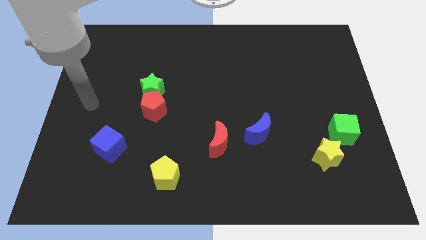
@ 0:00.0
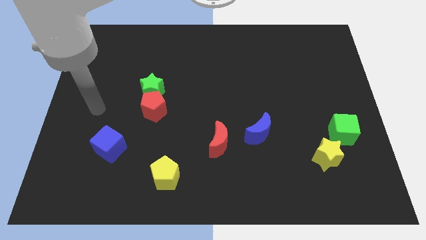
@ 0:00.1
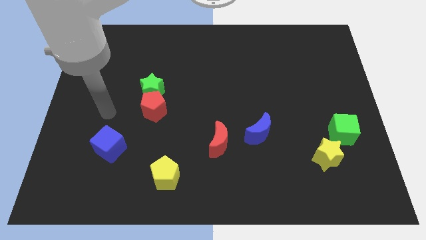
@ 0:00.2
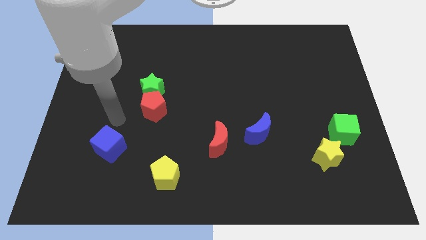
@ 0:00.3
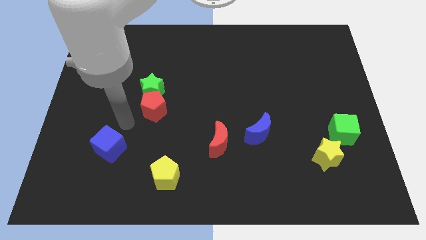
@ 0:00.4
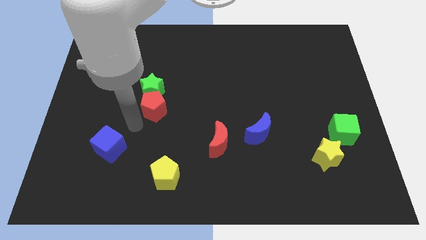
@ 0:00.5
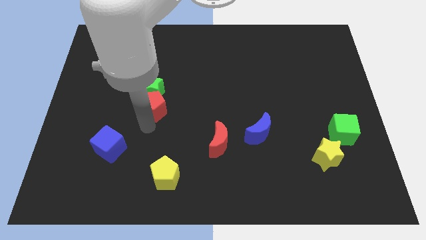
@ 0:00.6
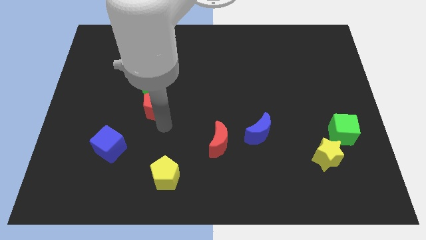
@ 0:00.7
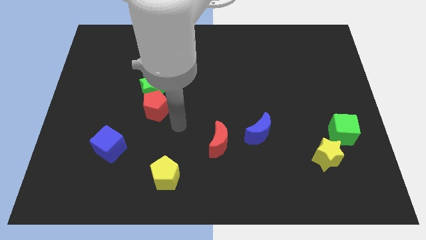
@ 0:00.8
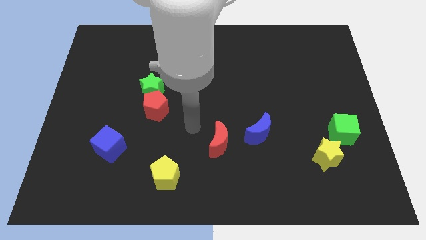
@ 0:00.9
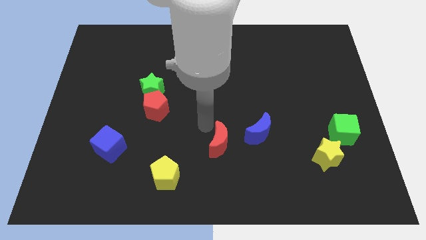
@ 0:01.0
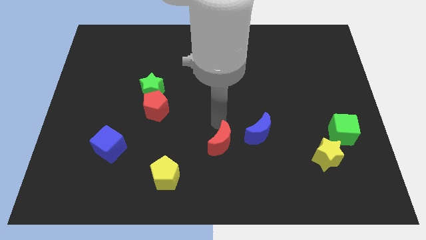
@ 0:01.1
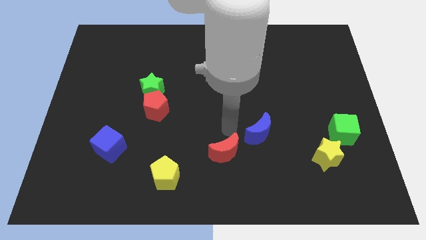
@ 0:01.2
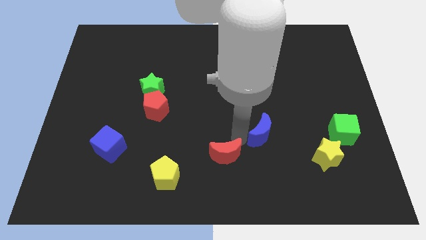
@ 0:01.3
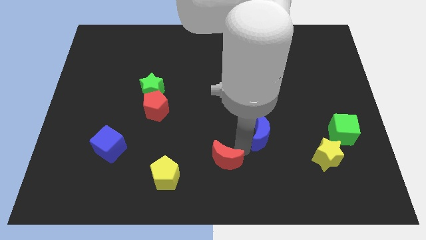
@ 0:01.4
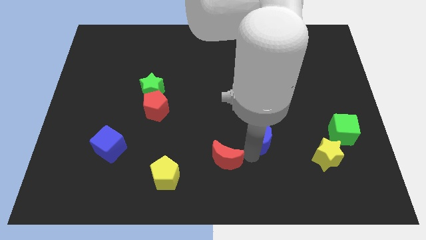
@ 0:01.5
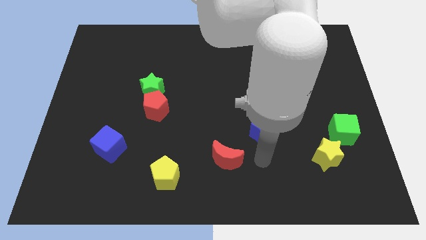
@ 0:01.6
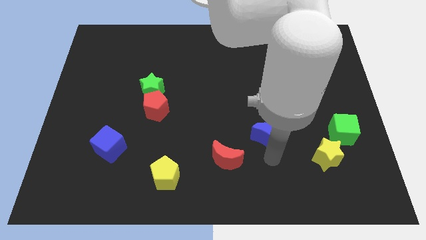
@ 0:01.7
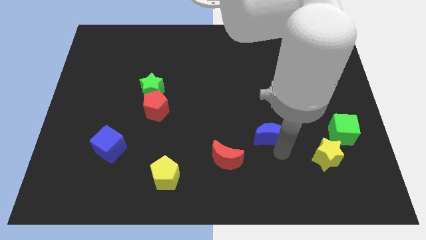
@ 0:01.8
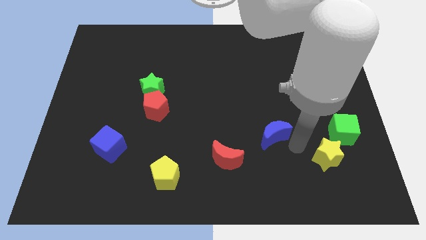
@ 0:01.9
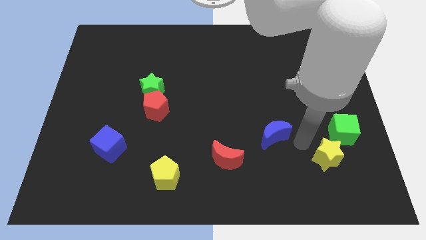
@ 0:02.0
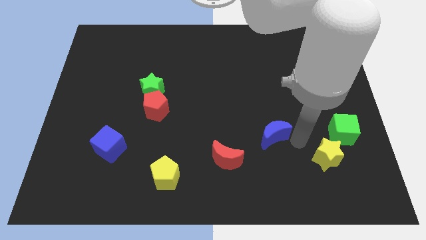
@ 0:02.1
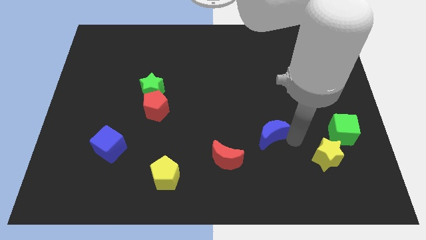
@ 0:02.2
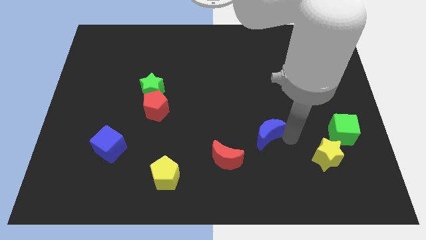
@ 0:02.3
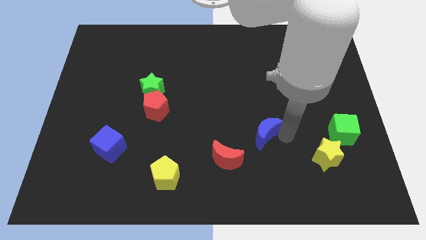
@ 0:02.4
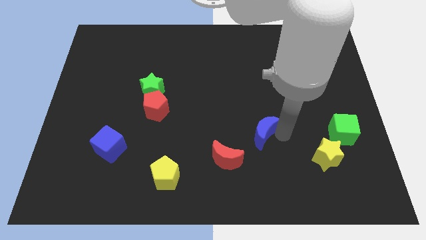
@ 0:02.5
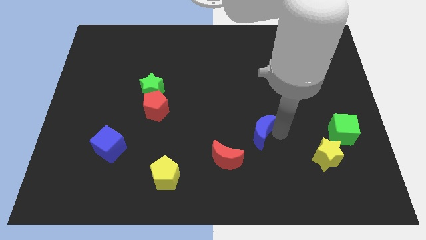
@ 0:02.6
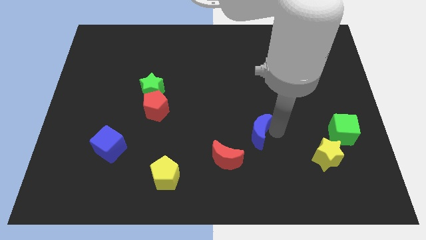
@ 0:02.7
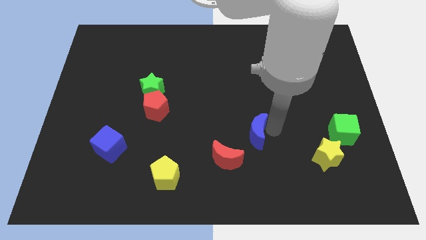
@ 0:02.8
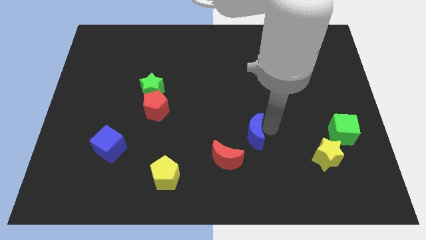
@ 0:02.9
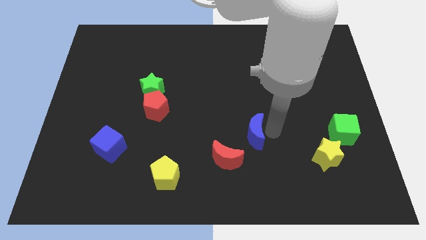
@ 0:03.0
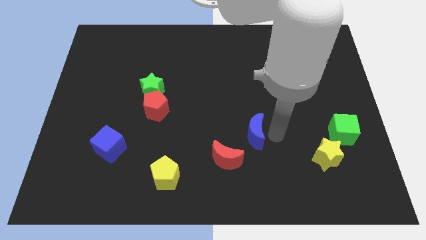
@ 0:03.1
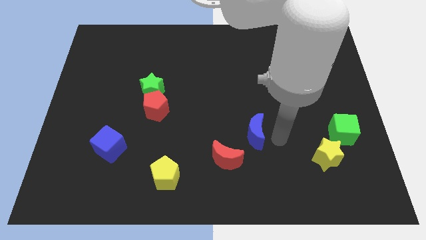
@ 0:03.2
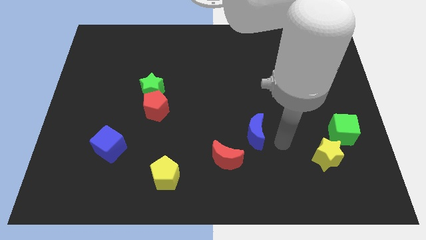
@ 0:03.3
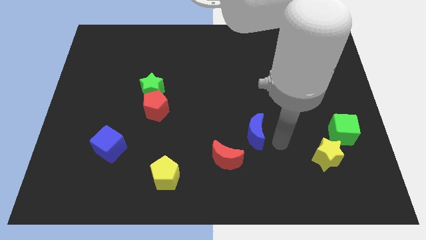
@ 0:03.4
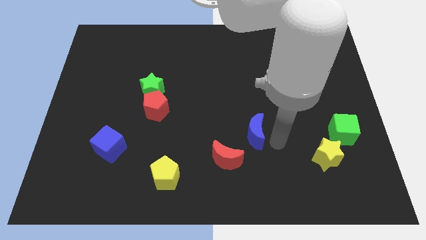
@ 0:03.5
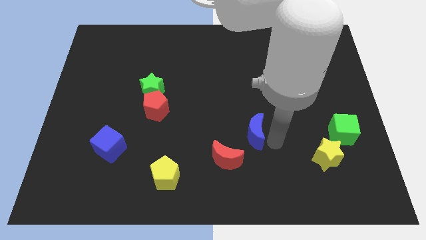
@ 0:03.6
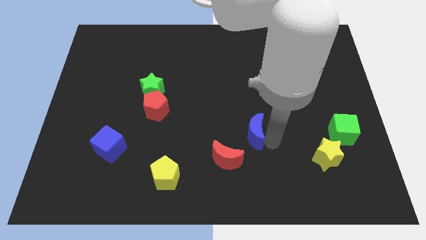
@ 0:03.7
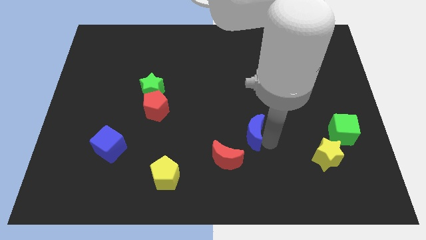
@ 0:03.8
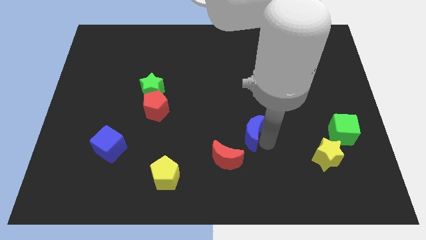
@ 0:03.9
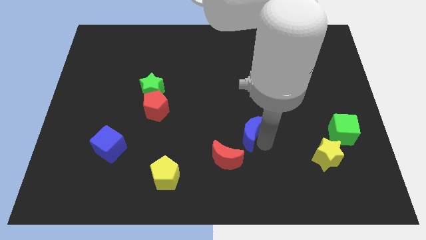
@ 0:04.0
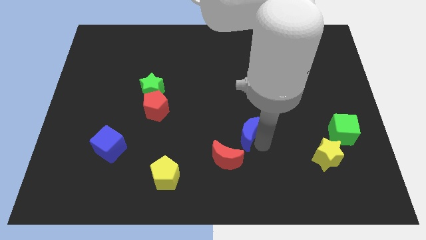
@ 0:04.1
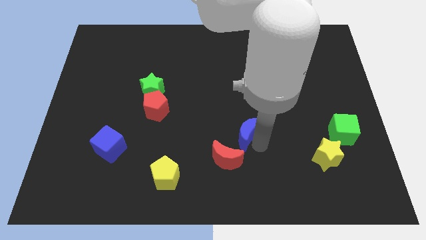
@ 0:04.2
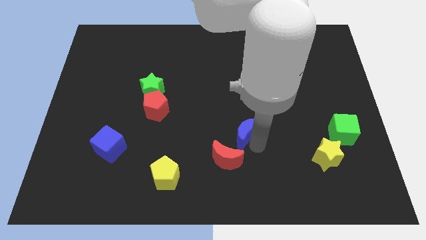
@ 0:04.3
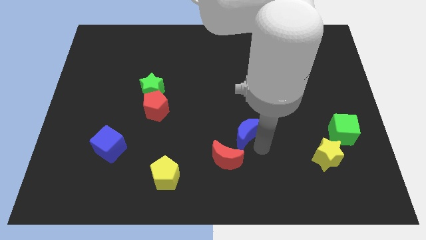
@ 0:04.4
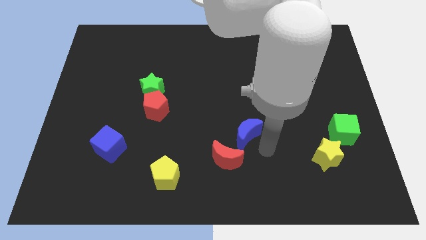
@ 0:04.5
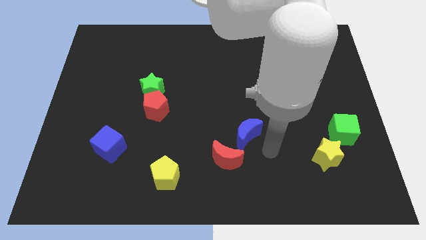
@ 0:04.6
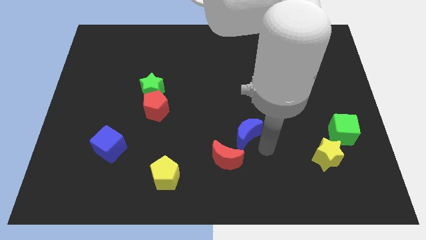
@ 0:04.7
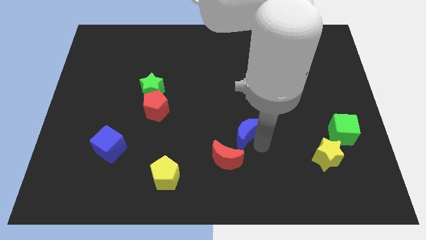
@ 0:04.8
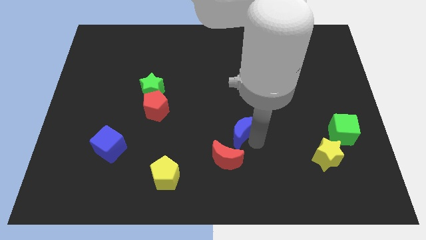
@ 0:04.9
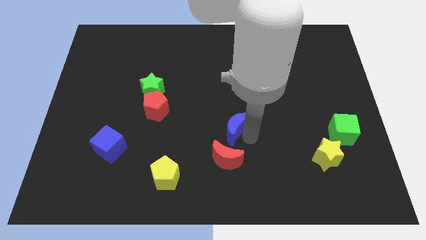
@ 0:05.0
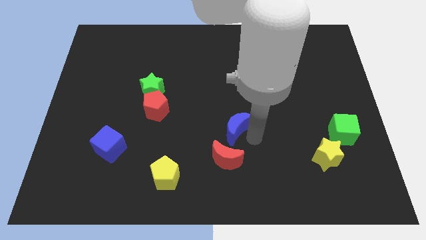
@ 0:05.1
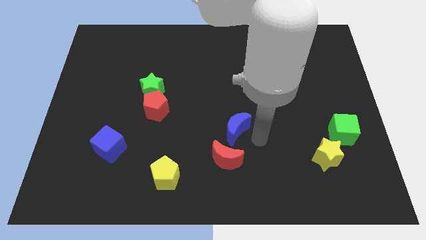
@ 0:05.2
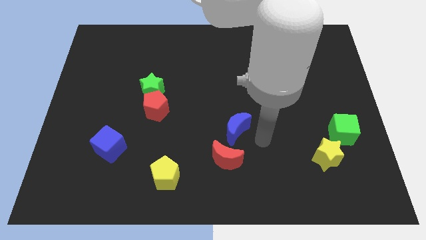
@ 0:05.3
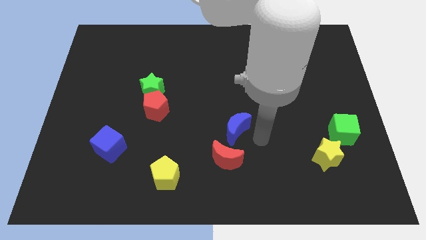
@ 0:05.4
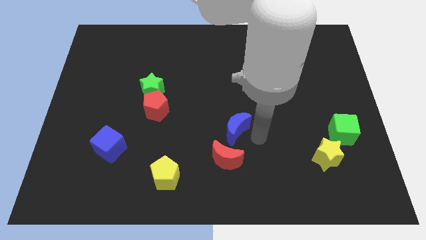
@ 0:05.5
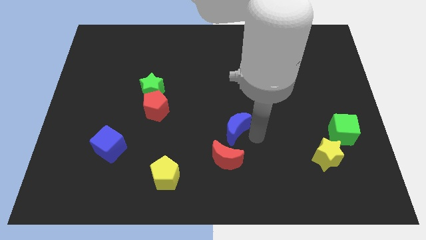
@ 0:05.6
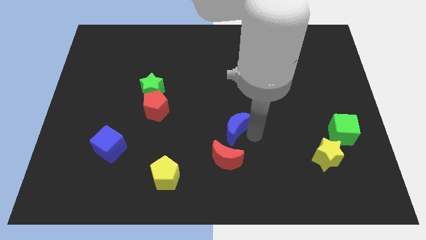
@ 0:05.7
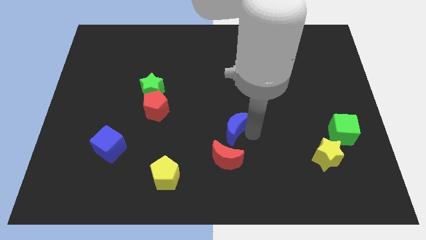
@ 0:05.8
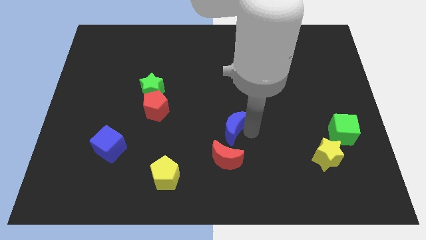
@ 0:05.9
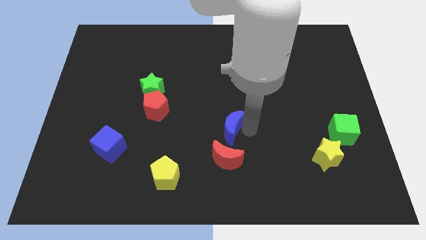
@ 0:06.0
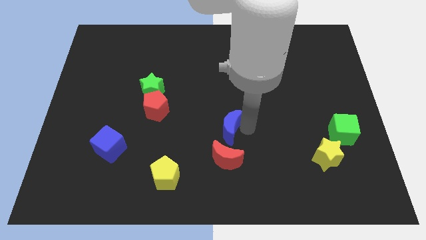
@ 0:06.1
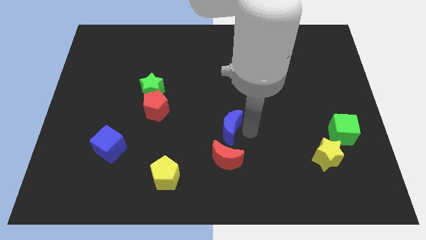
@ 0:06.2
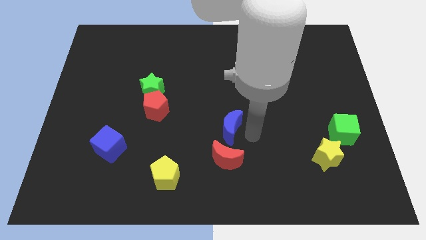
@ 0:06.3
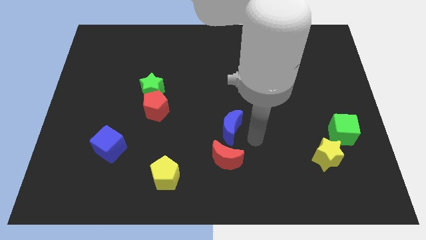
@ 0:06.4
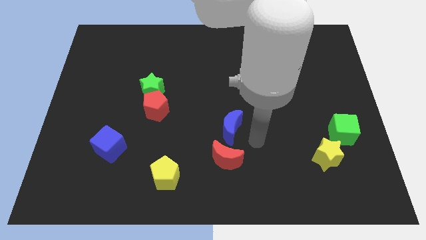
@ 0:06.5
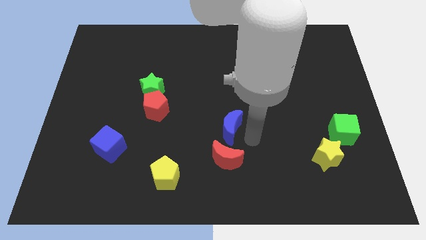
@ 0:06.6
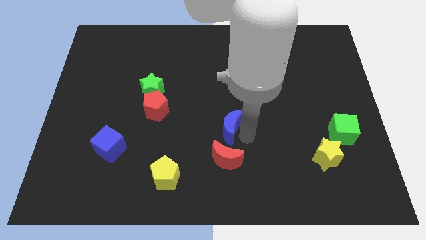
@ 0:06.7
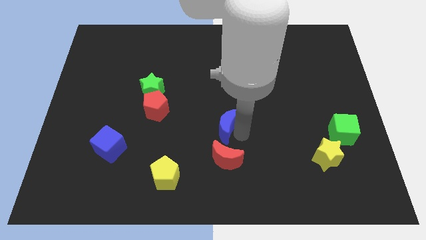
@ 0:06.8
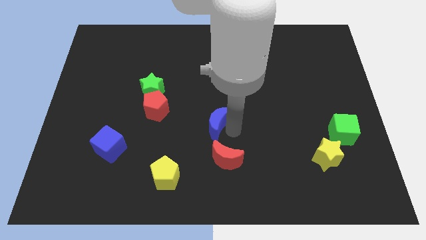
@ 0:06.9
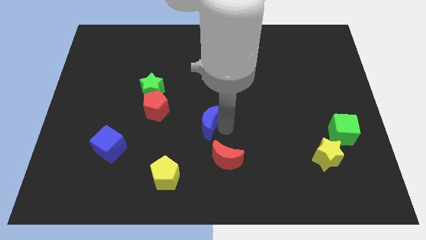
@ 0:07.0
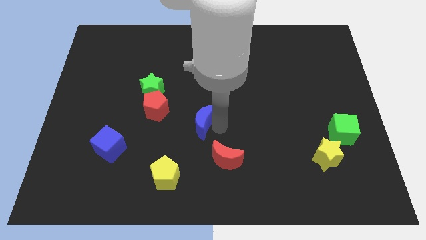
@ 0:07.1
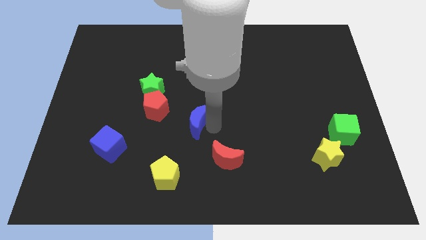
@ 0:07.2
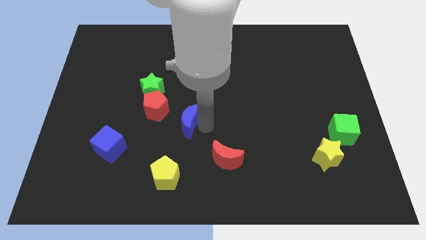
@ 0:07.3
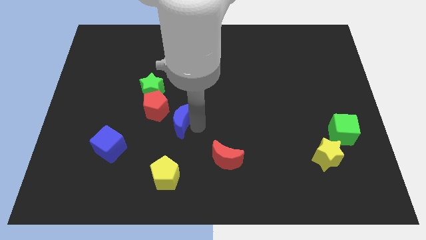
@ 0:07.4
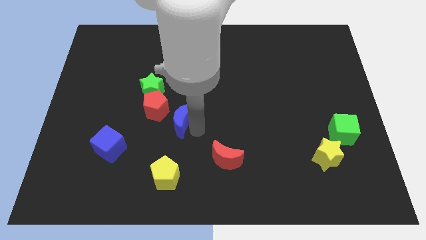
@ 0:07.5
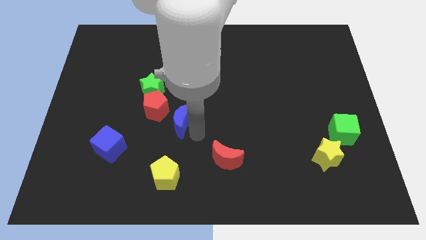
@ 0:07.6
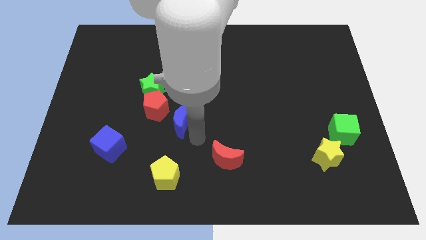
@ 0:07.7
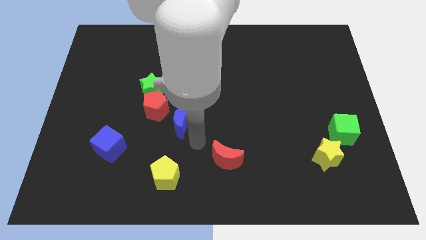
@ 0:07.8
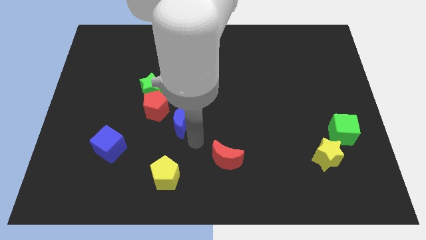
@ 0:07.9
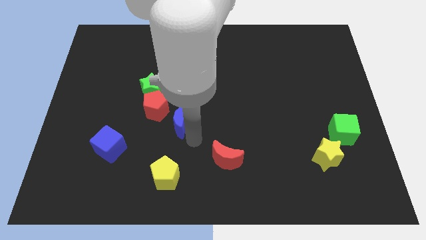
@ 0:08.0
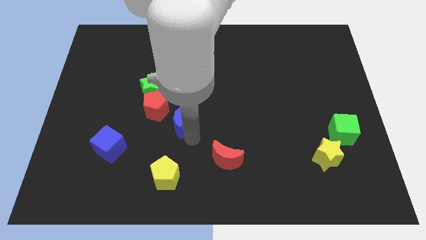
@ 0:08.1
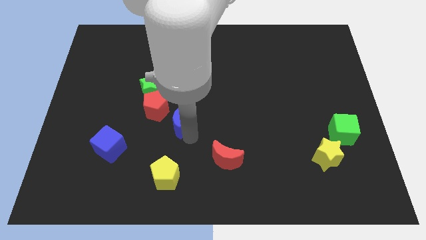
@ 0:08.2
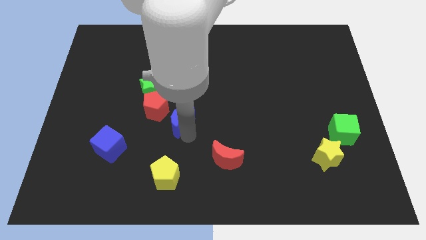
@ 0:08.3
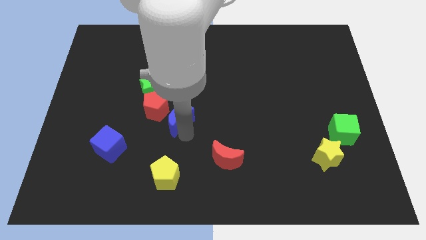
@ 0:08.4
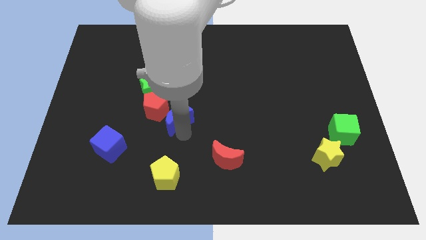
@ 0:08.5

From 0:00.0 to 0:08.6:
slide the blue moon to the red pentagon
